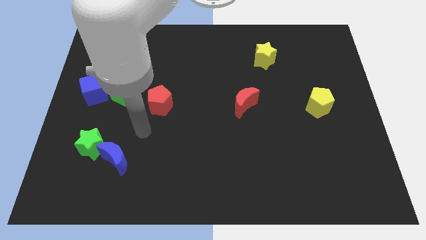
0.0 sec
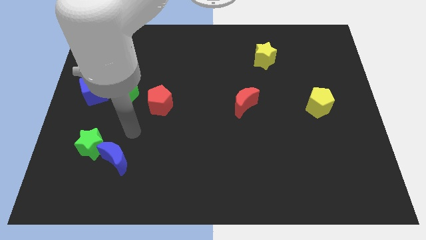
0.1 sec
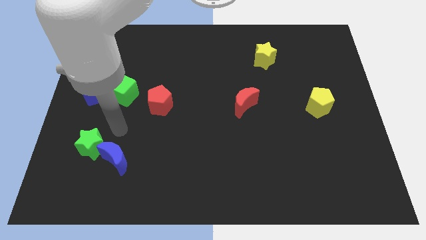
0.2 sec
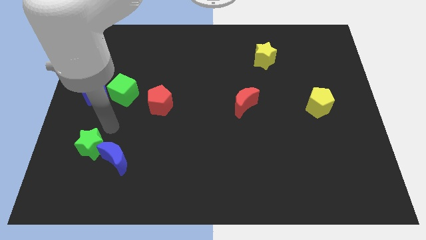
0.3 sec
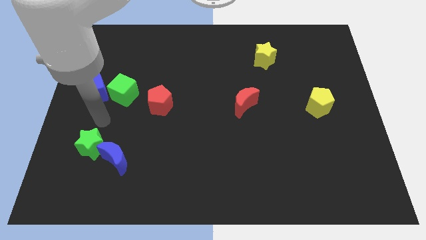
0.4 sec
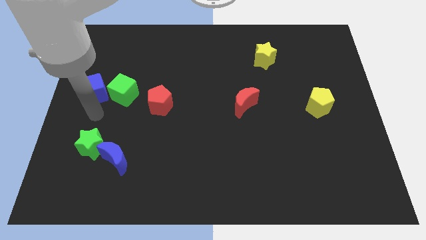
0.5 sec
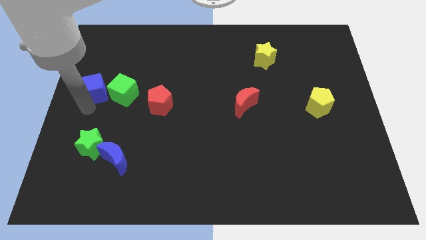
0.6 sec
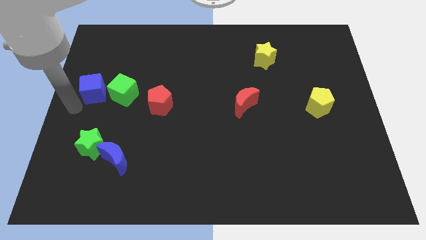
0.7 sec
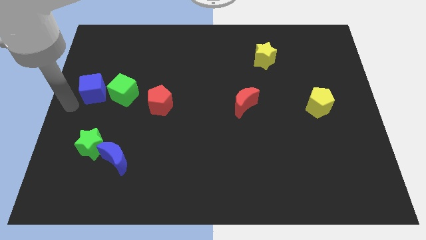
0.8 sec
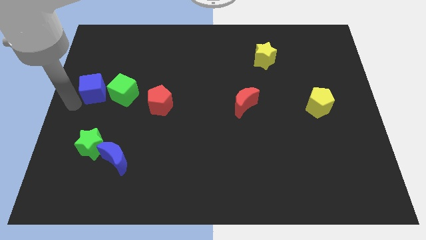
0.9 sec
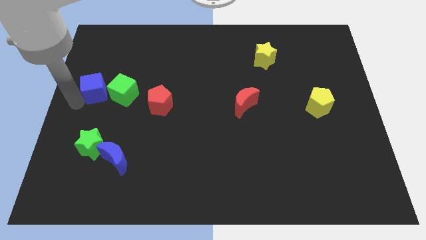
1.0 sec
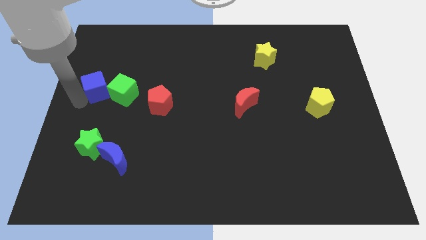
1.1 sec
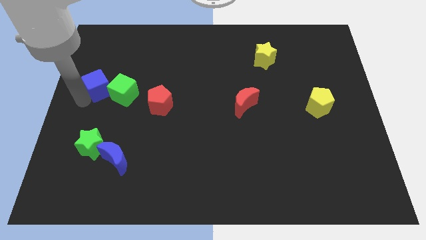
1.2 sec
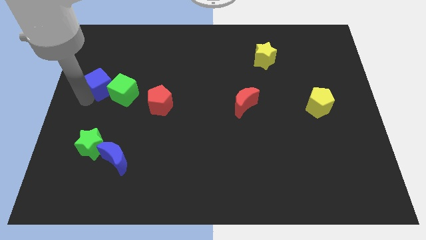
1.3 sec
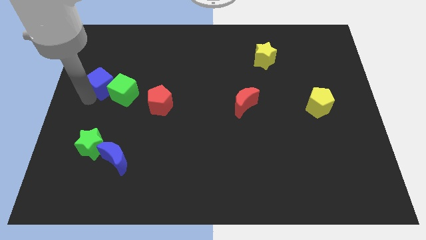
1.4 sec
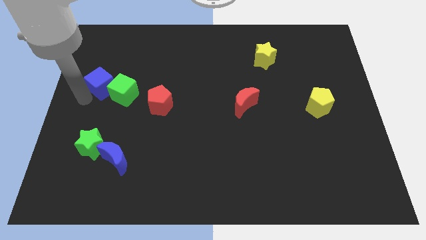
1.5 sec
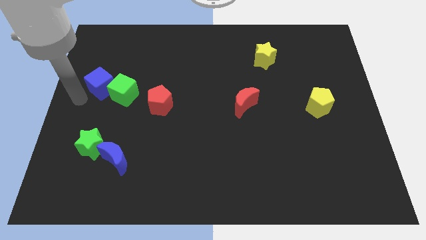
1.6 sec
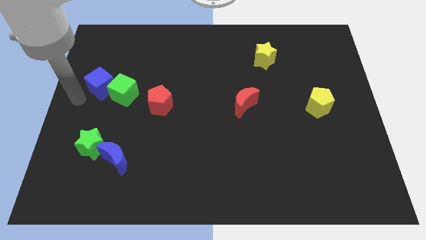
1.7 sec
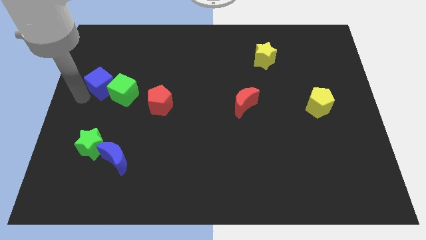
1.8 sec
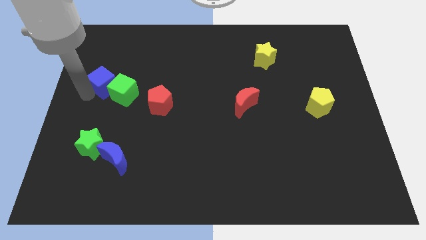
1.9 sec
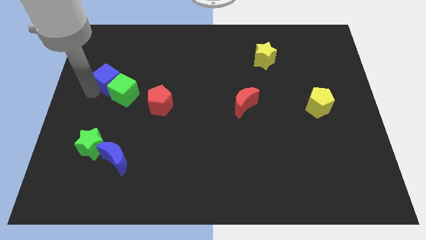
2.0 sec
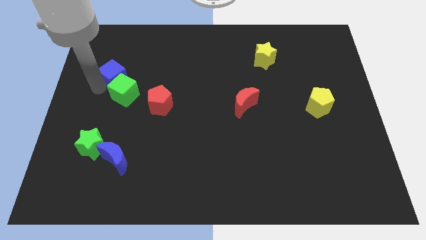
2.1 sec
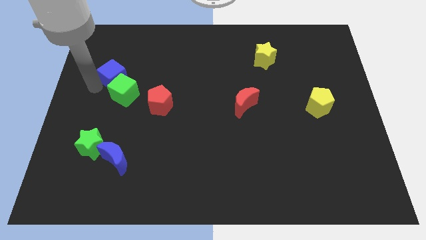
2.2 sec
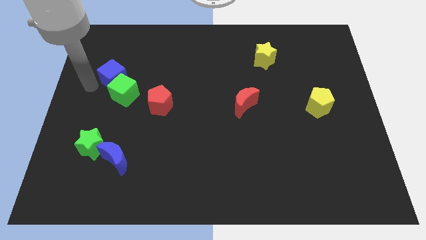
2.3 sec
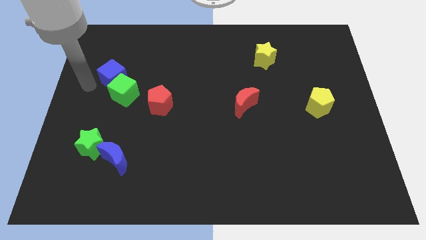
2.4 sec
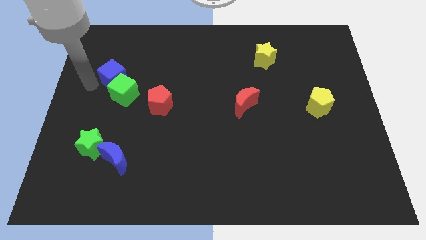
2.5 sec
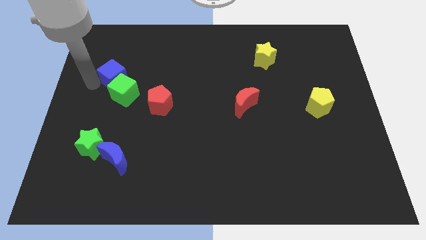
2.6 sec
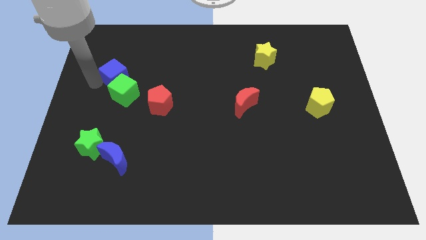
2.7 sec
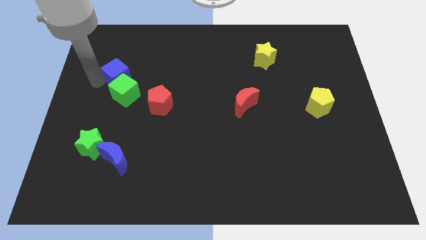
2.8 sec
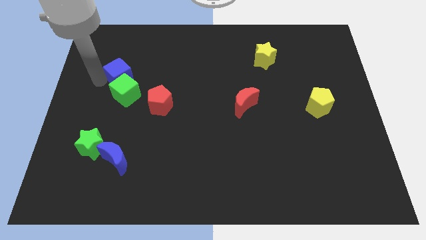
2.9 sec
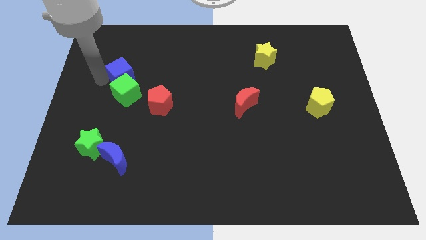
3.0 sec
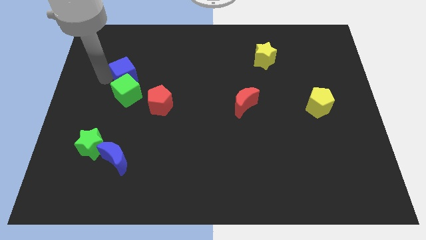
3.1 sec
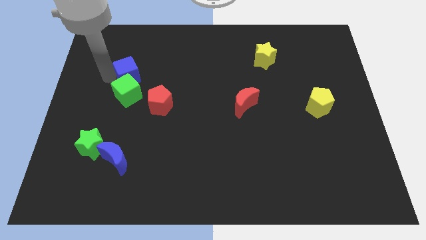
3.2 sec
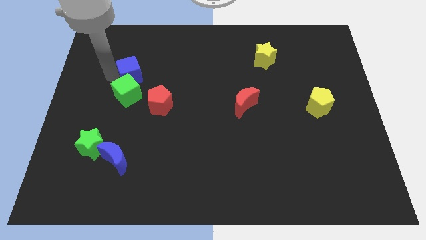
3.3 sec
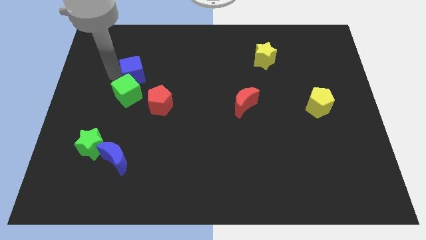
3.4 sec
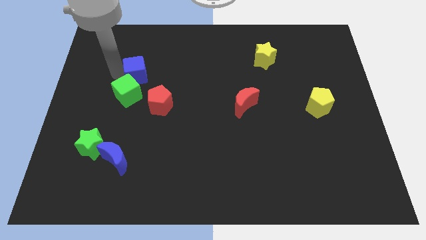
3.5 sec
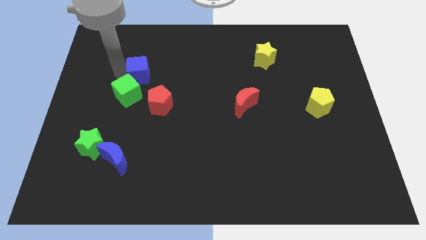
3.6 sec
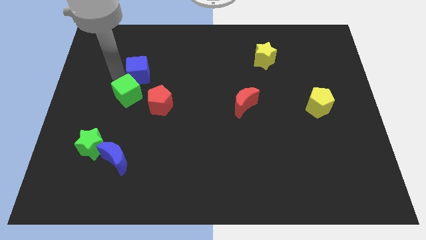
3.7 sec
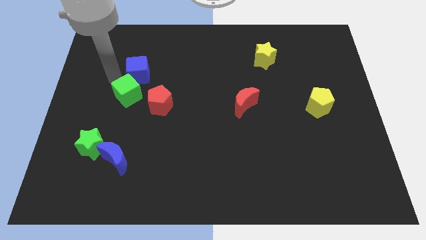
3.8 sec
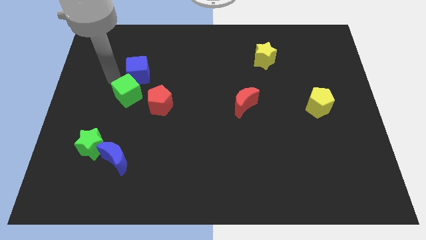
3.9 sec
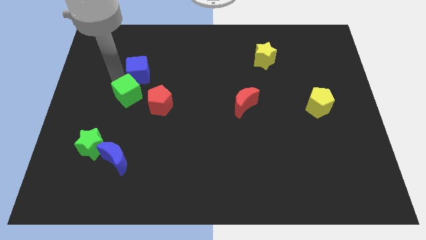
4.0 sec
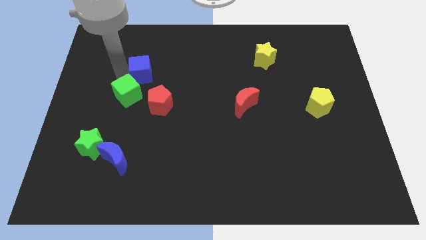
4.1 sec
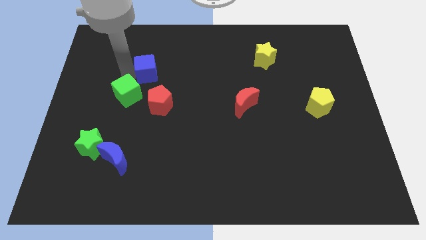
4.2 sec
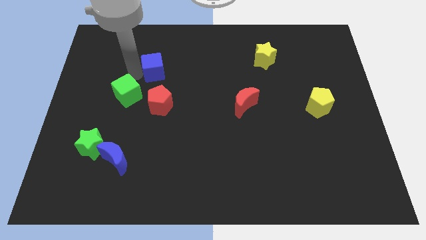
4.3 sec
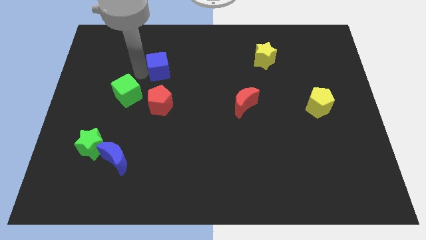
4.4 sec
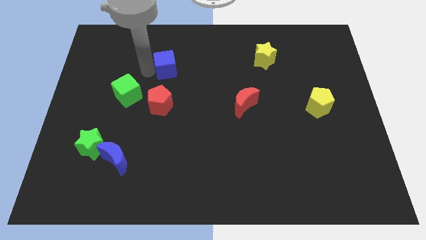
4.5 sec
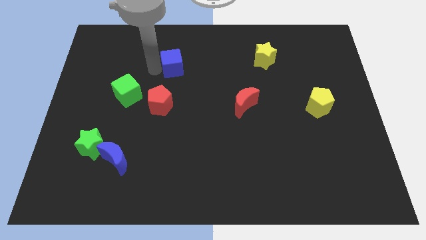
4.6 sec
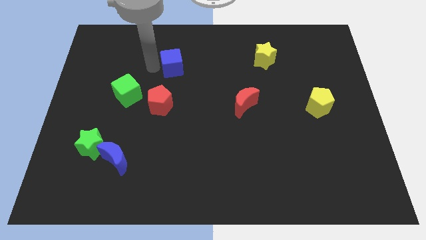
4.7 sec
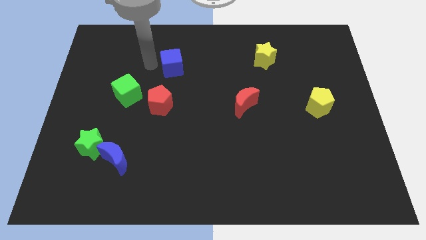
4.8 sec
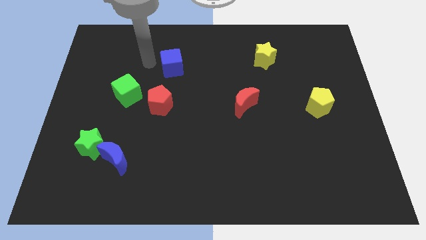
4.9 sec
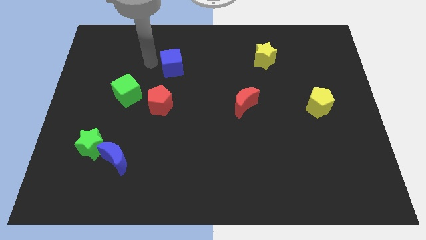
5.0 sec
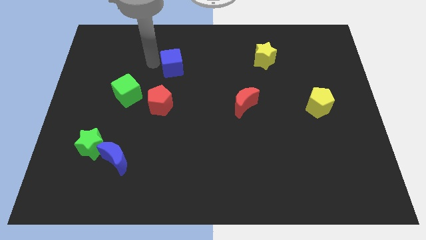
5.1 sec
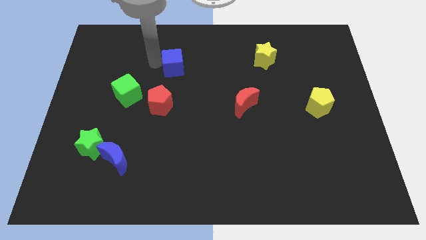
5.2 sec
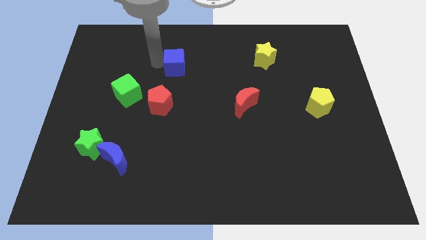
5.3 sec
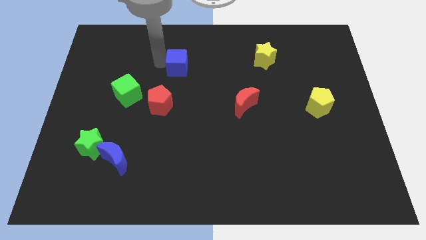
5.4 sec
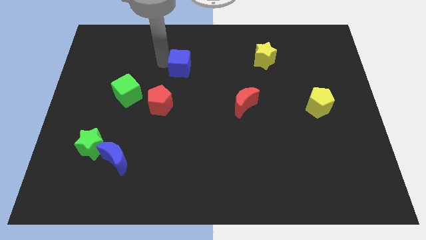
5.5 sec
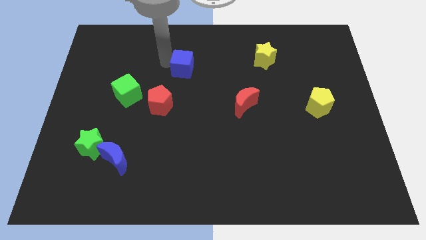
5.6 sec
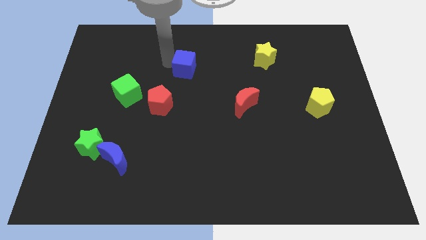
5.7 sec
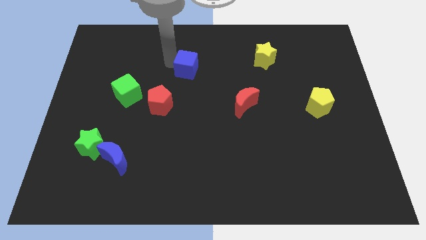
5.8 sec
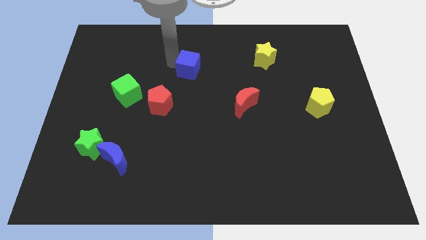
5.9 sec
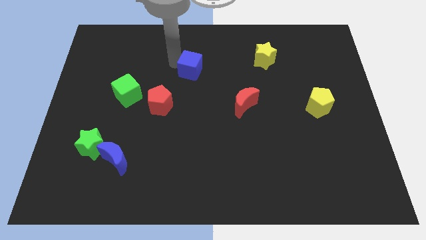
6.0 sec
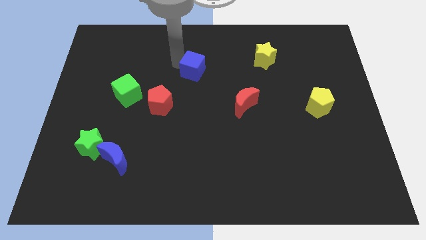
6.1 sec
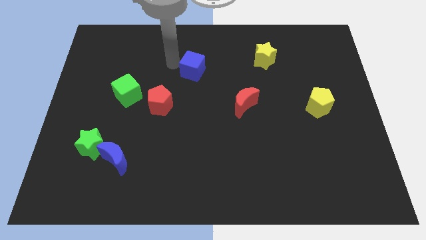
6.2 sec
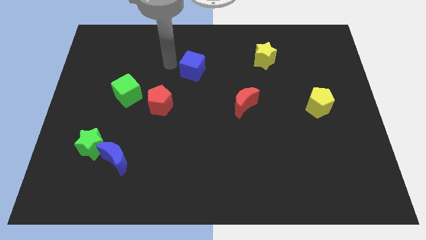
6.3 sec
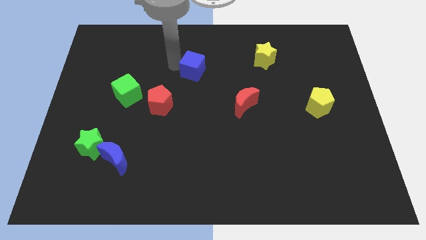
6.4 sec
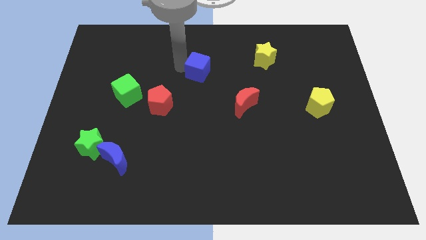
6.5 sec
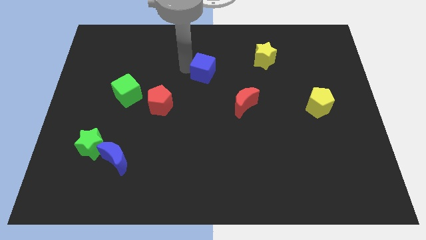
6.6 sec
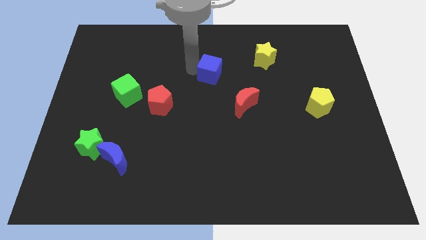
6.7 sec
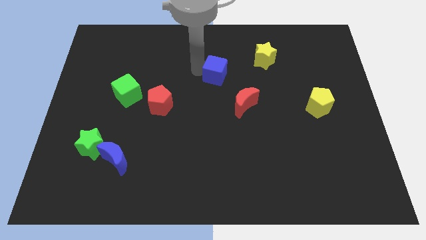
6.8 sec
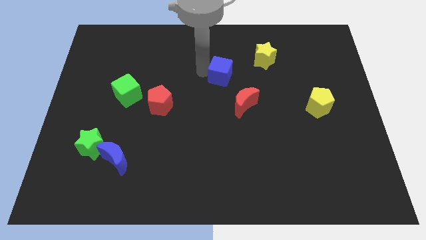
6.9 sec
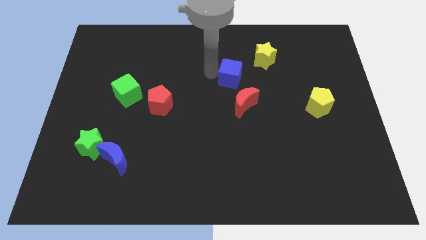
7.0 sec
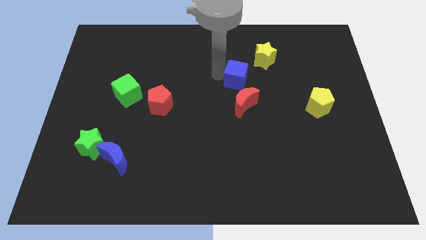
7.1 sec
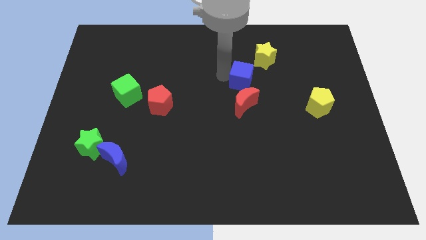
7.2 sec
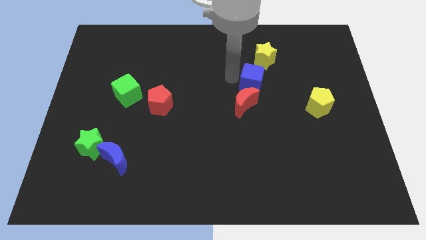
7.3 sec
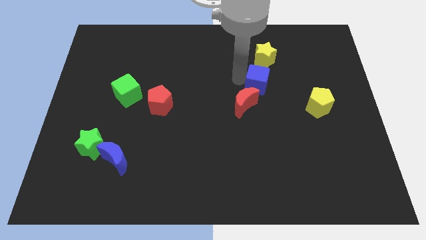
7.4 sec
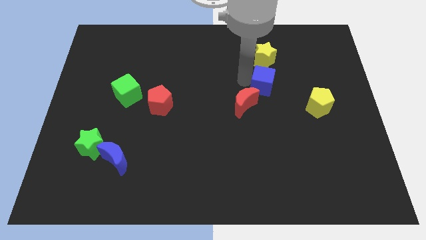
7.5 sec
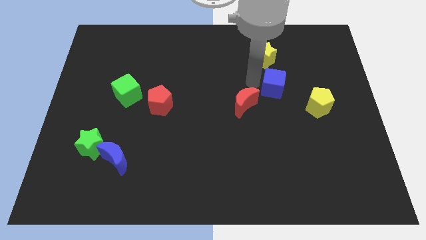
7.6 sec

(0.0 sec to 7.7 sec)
put the blue cube diagonally up and to the left of the yellow pentagon
